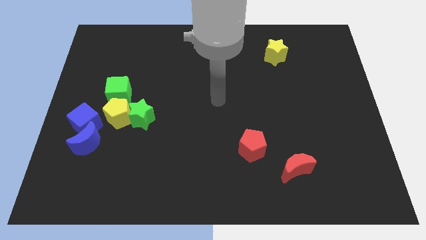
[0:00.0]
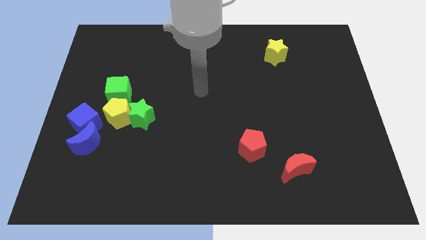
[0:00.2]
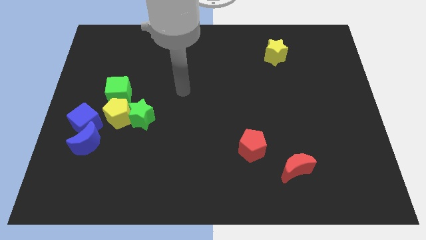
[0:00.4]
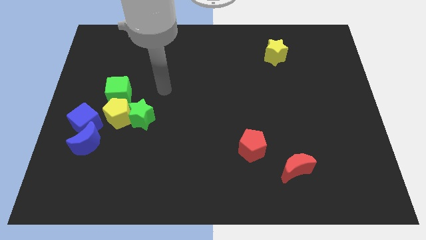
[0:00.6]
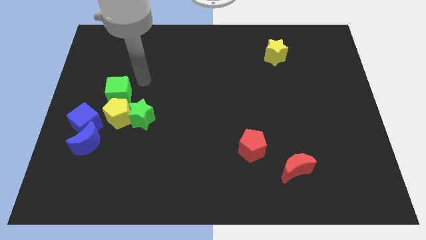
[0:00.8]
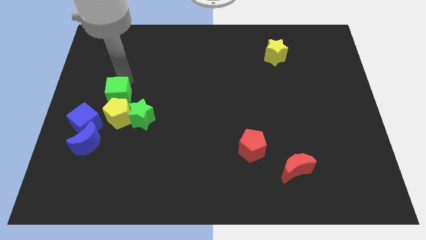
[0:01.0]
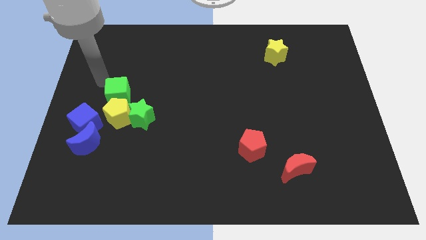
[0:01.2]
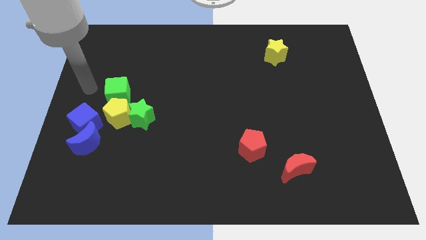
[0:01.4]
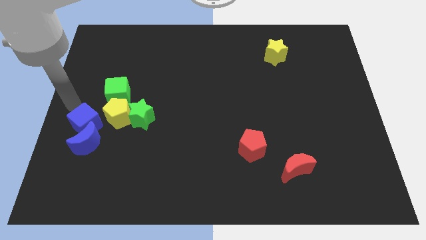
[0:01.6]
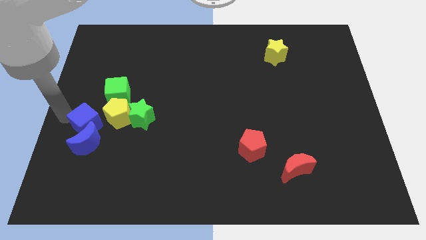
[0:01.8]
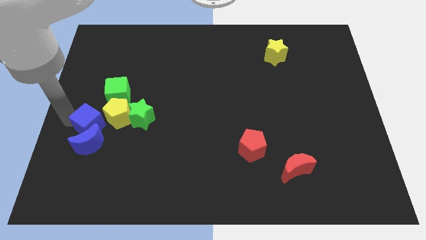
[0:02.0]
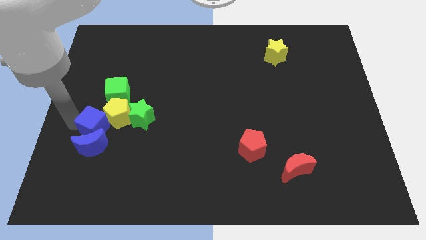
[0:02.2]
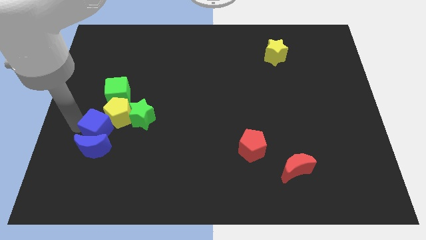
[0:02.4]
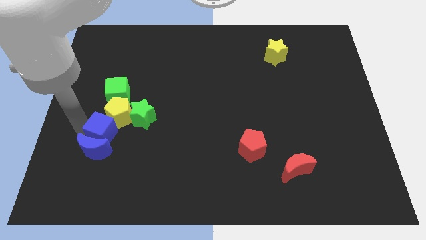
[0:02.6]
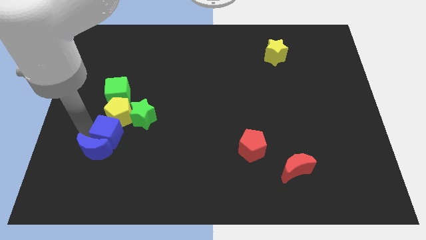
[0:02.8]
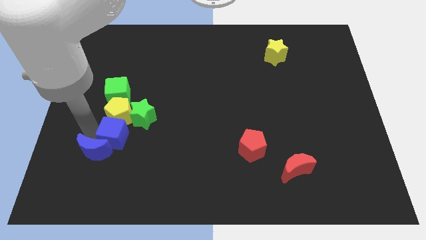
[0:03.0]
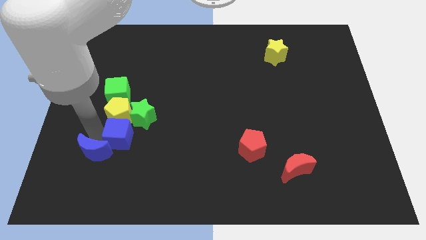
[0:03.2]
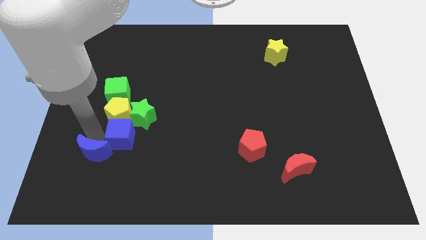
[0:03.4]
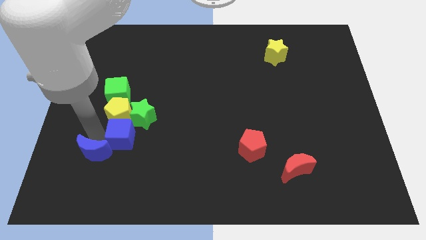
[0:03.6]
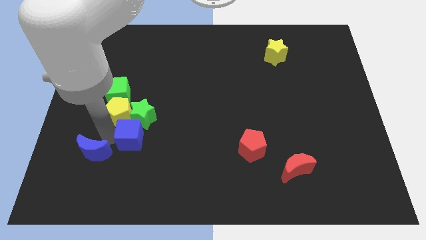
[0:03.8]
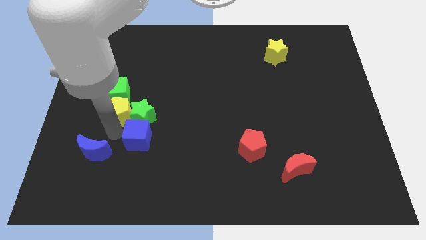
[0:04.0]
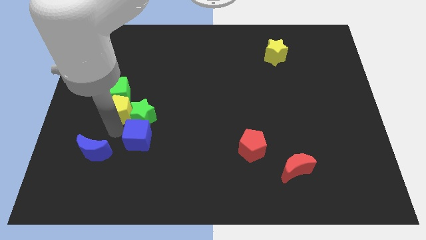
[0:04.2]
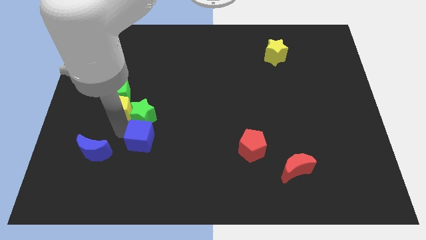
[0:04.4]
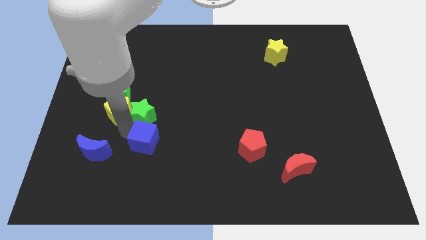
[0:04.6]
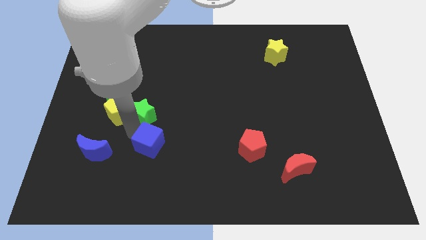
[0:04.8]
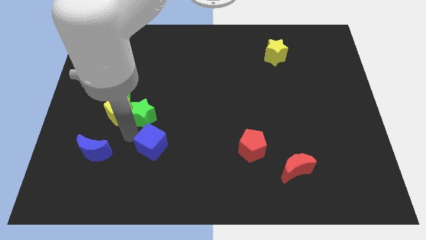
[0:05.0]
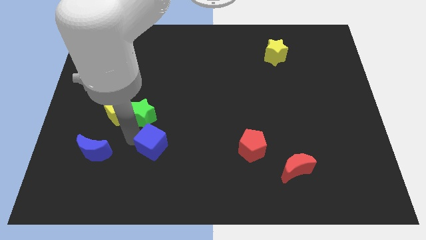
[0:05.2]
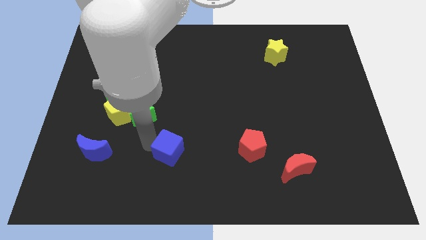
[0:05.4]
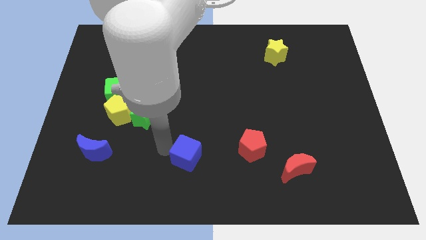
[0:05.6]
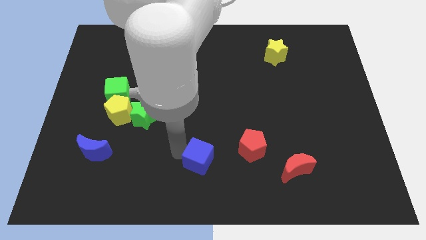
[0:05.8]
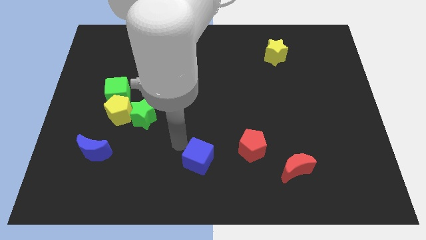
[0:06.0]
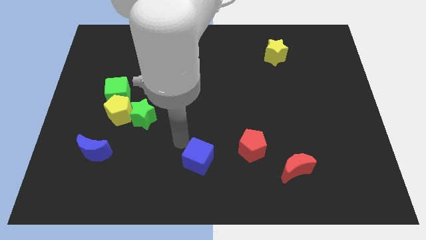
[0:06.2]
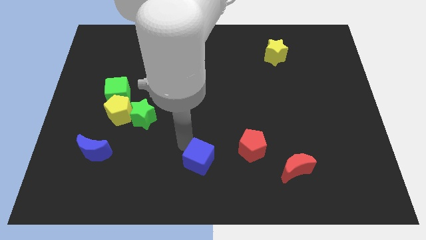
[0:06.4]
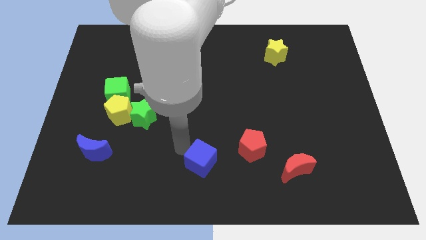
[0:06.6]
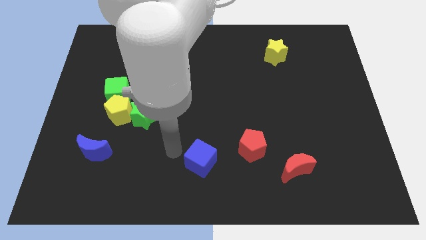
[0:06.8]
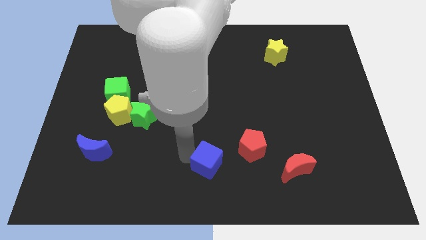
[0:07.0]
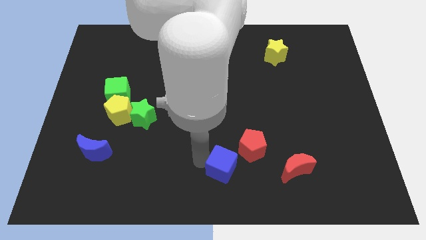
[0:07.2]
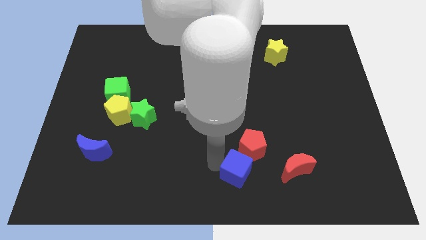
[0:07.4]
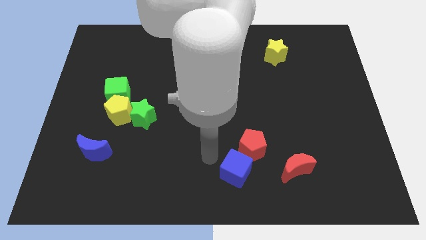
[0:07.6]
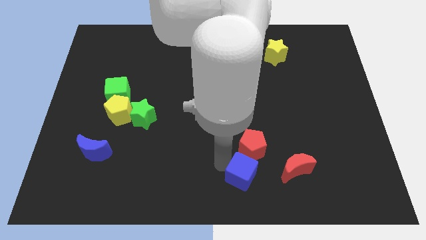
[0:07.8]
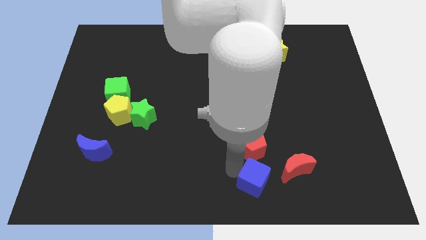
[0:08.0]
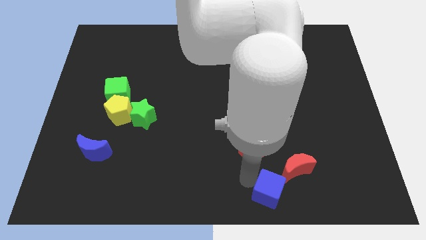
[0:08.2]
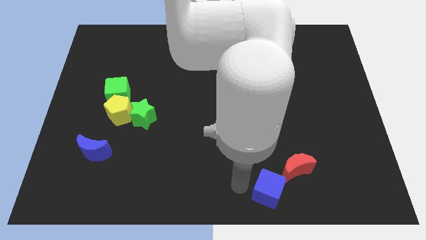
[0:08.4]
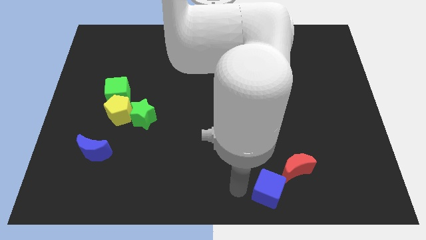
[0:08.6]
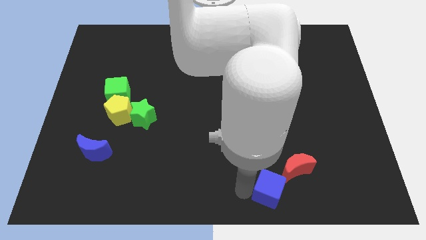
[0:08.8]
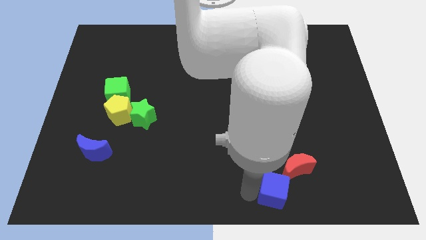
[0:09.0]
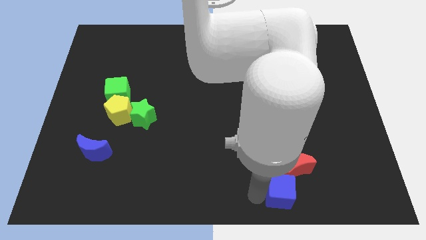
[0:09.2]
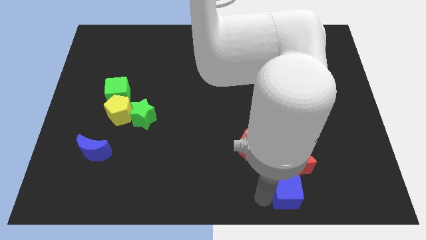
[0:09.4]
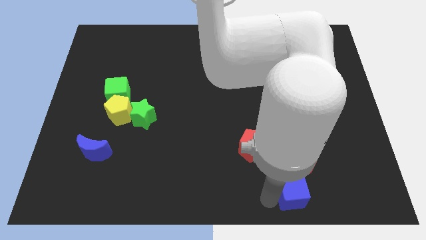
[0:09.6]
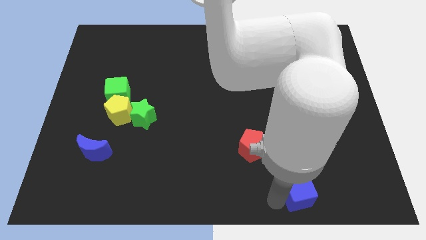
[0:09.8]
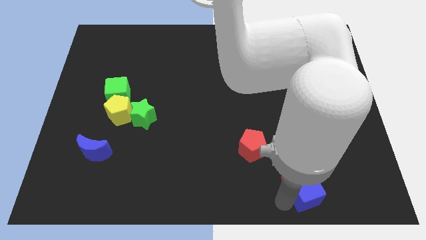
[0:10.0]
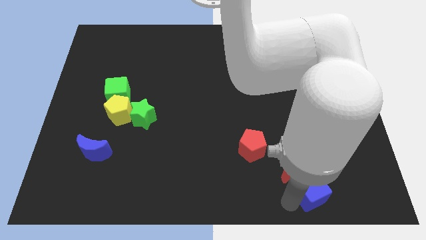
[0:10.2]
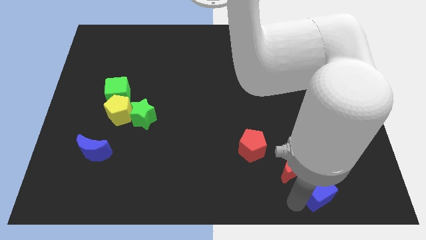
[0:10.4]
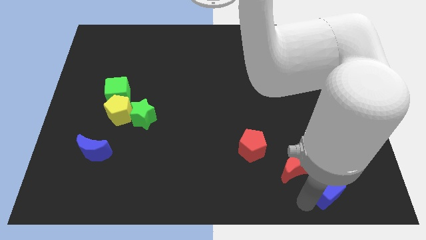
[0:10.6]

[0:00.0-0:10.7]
push the blue cube to the right side of the red moon

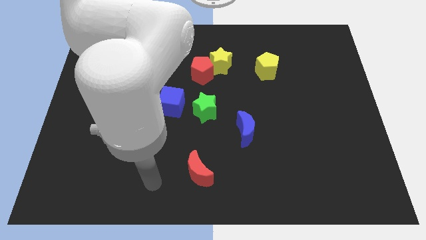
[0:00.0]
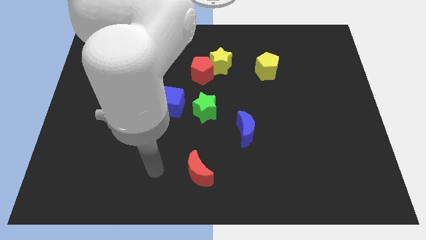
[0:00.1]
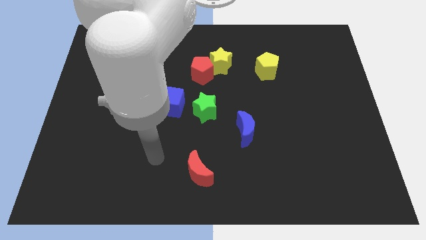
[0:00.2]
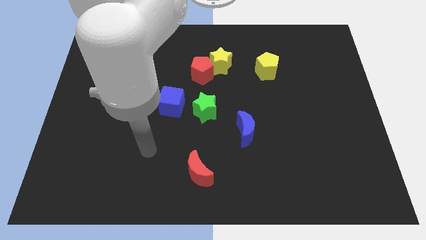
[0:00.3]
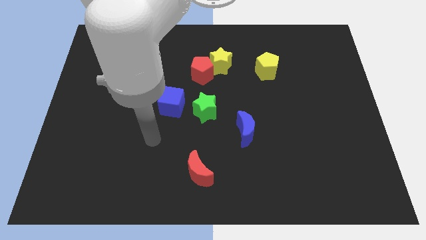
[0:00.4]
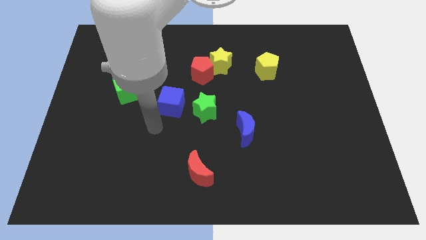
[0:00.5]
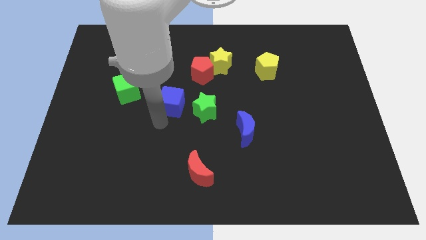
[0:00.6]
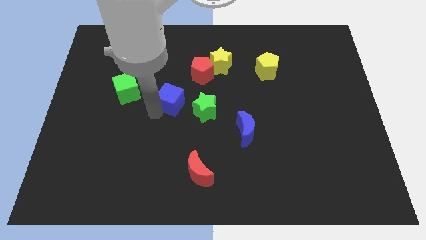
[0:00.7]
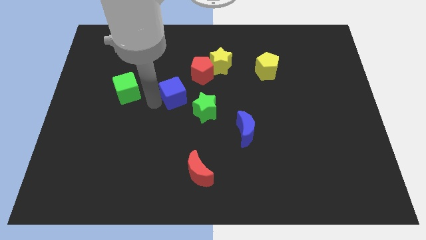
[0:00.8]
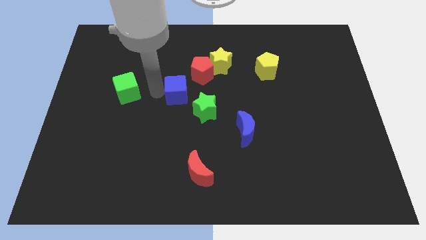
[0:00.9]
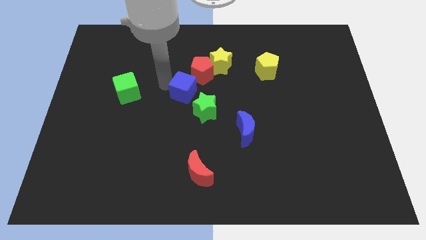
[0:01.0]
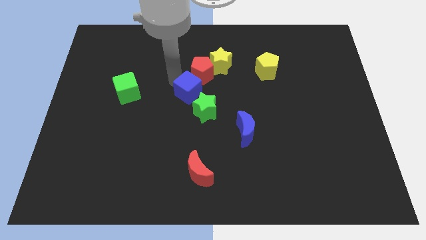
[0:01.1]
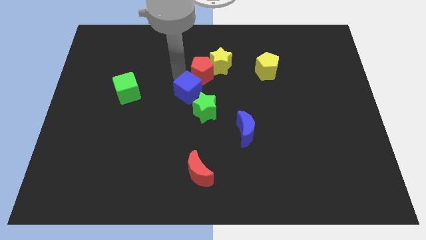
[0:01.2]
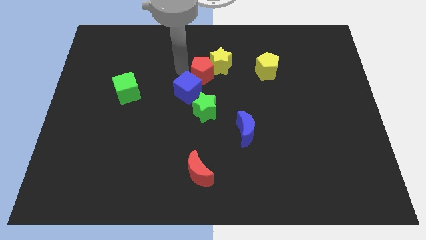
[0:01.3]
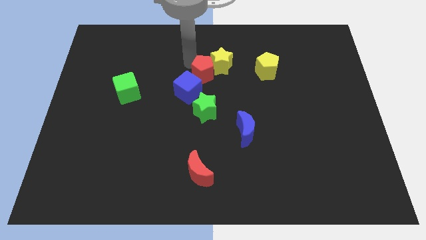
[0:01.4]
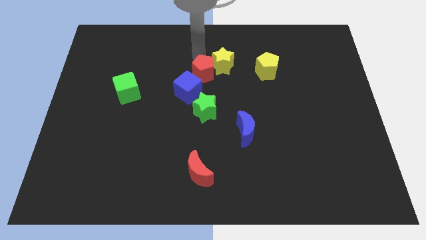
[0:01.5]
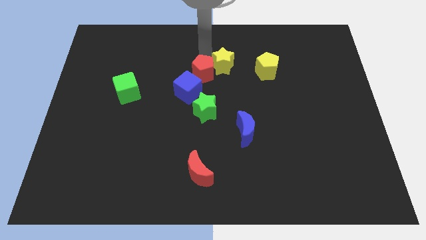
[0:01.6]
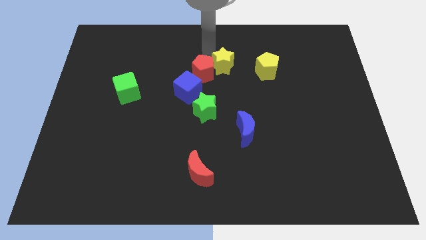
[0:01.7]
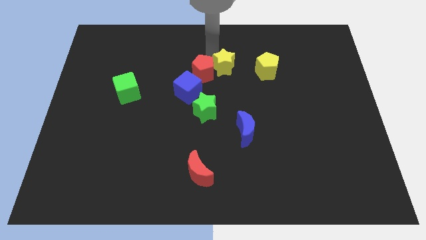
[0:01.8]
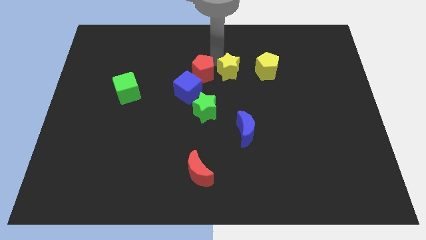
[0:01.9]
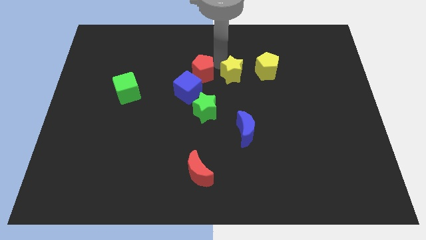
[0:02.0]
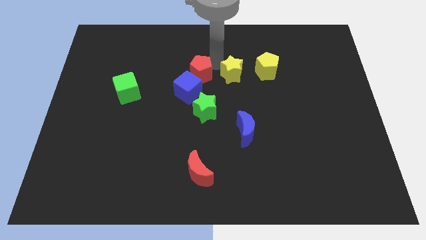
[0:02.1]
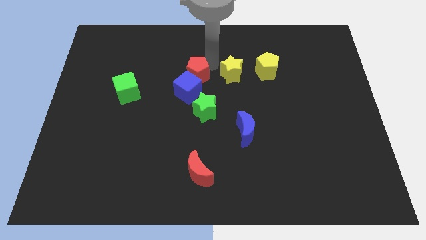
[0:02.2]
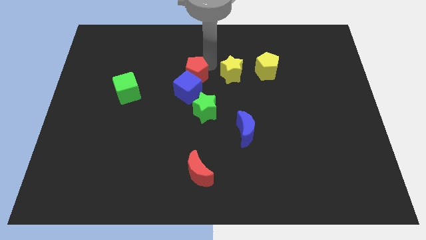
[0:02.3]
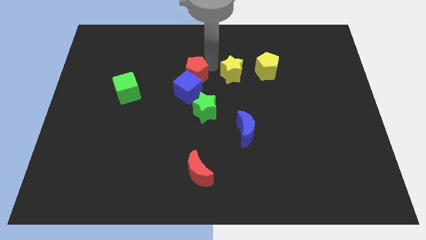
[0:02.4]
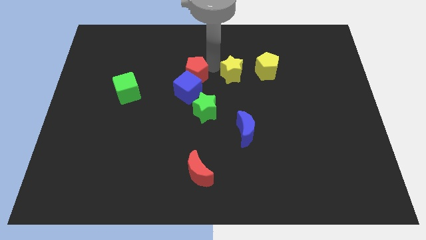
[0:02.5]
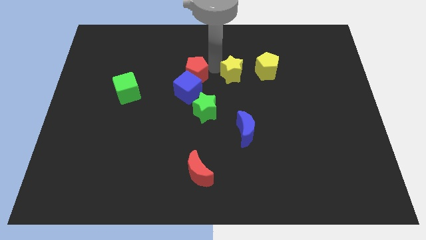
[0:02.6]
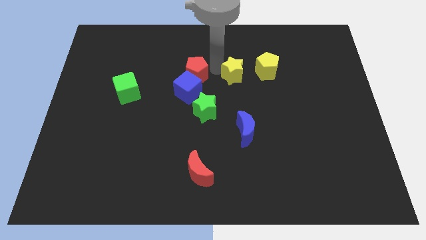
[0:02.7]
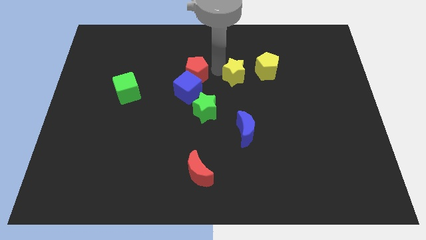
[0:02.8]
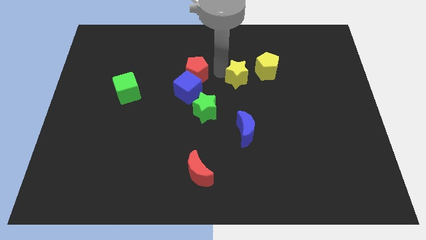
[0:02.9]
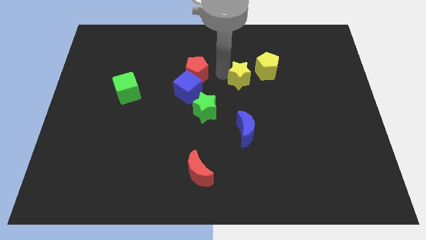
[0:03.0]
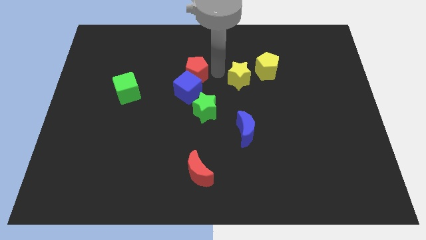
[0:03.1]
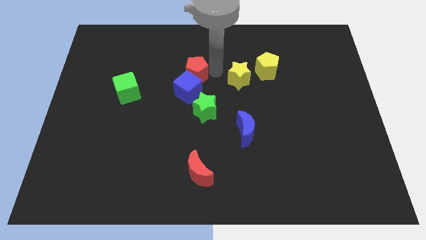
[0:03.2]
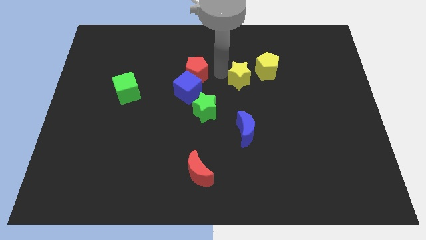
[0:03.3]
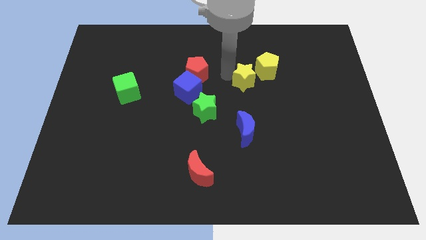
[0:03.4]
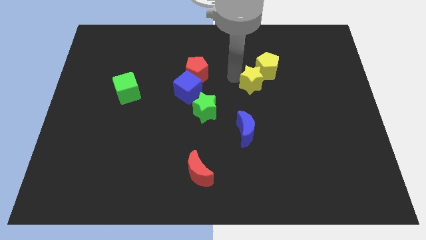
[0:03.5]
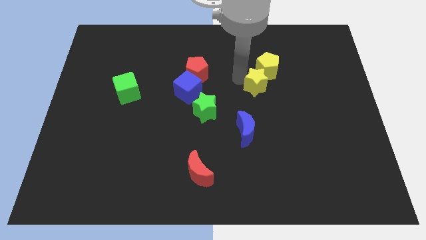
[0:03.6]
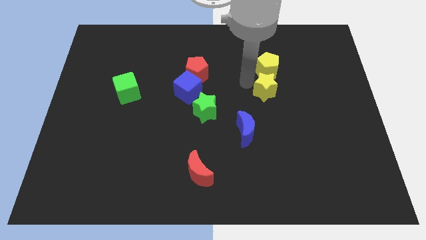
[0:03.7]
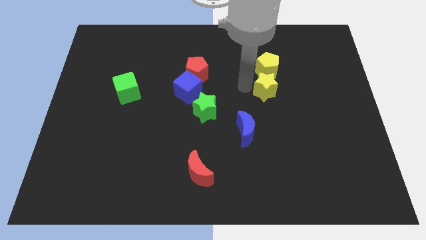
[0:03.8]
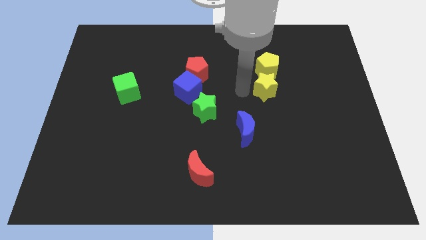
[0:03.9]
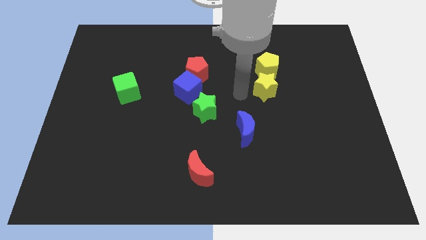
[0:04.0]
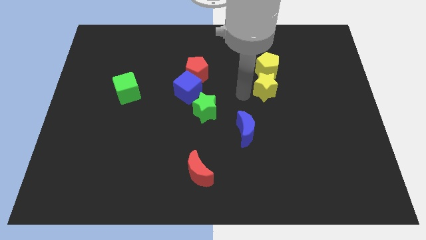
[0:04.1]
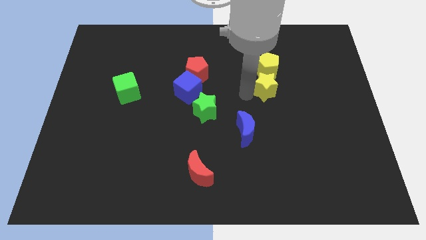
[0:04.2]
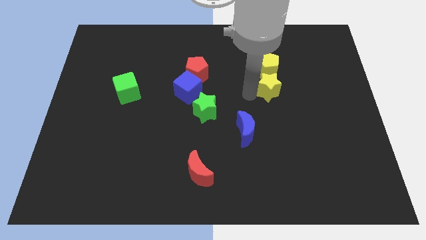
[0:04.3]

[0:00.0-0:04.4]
move the yellow star to the bottom right side of the yellow pentagon
